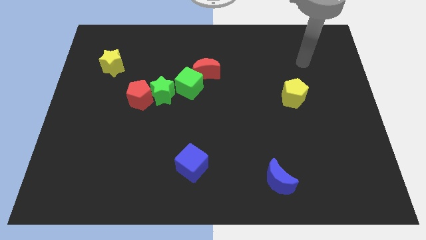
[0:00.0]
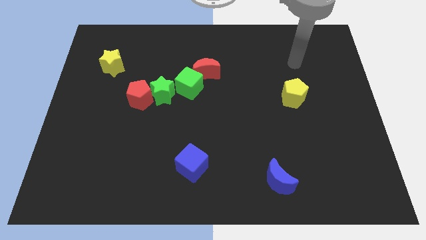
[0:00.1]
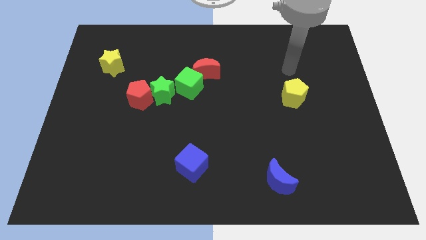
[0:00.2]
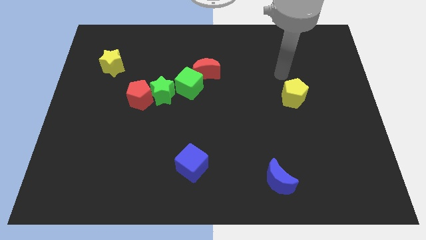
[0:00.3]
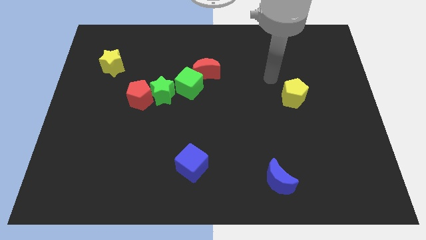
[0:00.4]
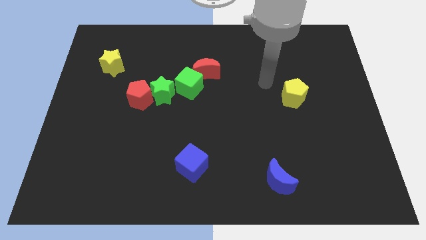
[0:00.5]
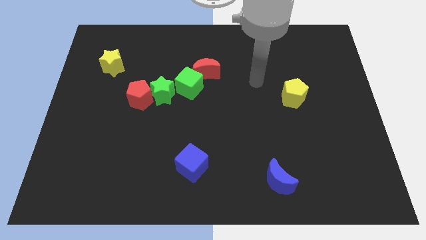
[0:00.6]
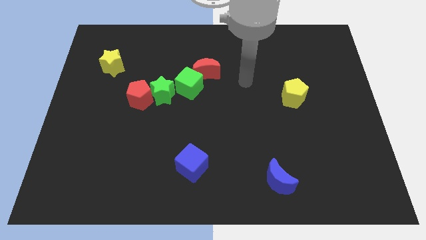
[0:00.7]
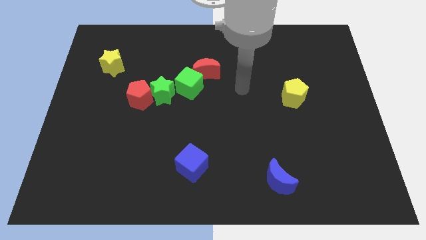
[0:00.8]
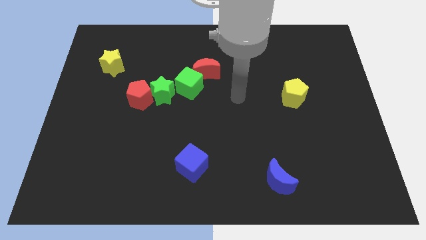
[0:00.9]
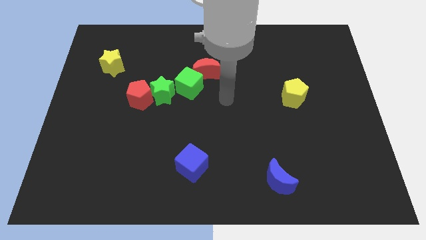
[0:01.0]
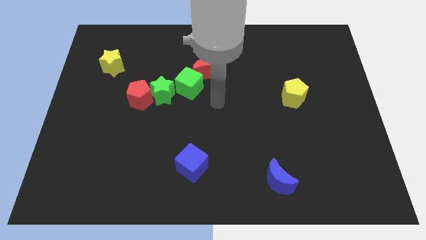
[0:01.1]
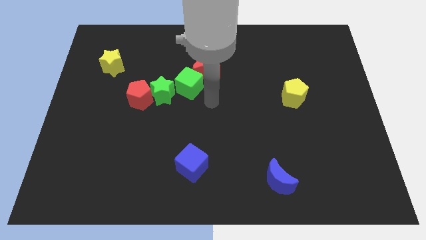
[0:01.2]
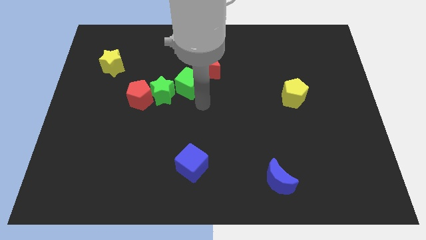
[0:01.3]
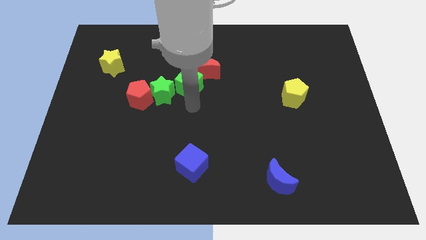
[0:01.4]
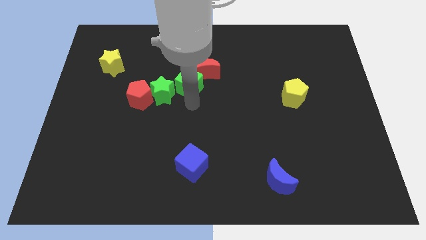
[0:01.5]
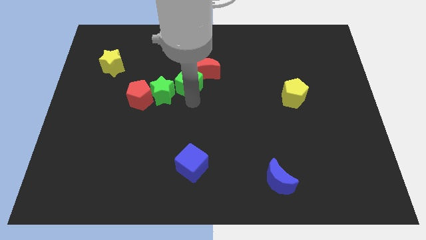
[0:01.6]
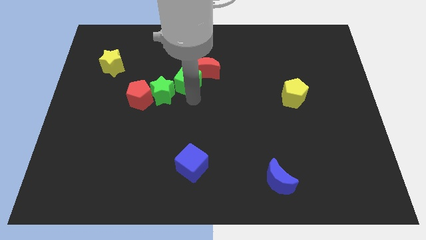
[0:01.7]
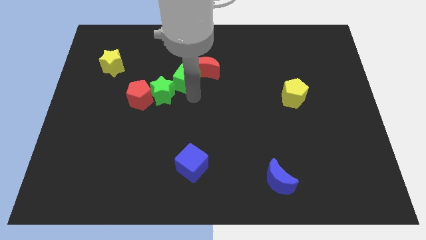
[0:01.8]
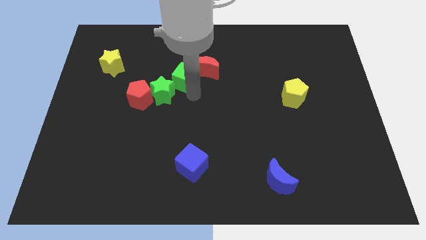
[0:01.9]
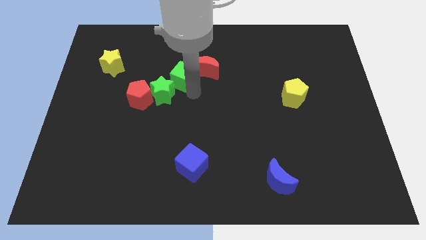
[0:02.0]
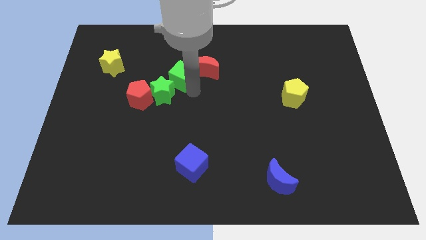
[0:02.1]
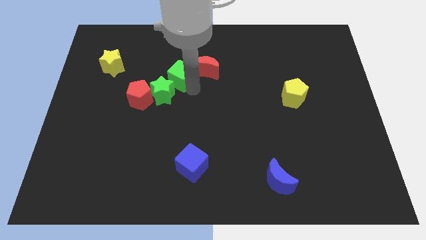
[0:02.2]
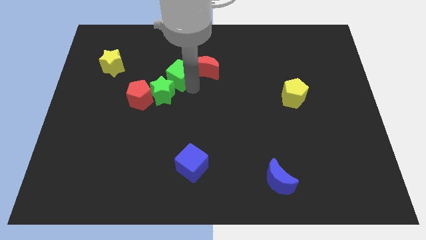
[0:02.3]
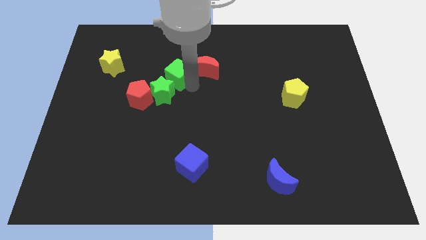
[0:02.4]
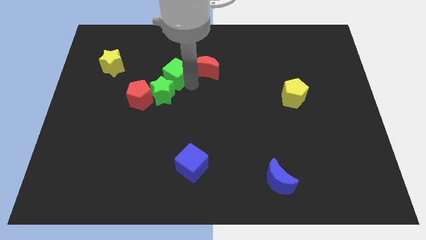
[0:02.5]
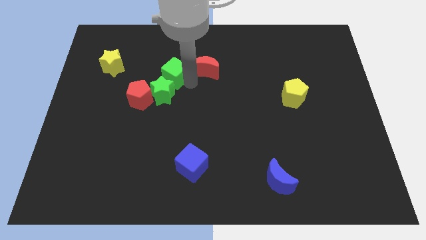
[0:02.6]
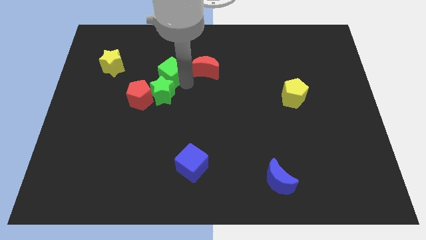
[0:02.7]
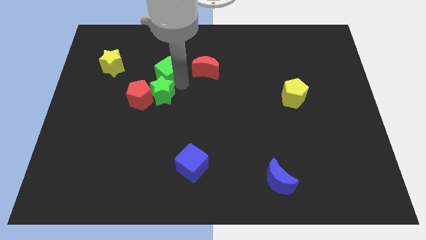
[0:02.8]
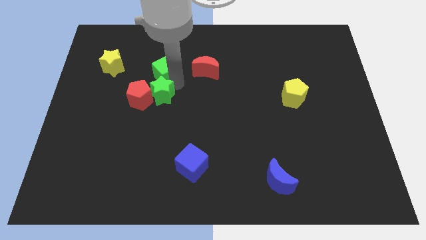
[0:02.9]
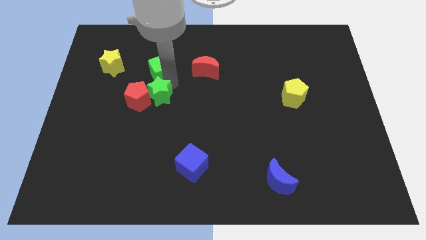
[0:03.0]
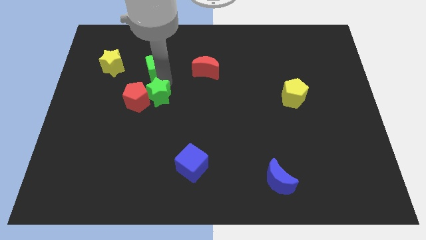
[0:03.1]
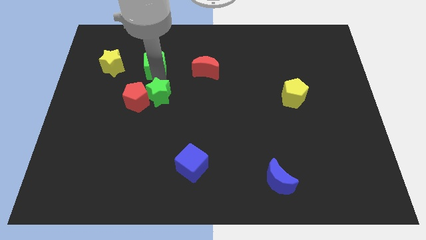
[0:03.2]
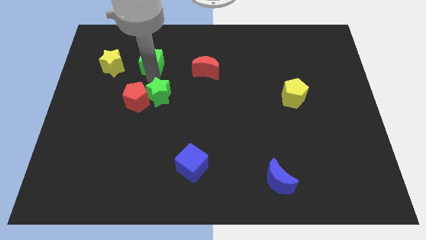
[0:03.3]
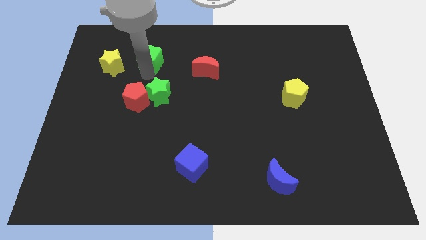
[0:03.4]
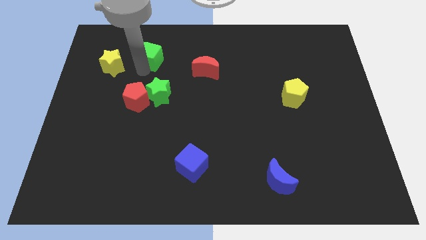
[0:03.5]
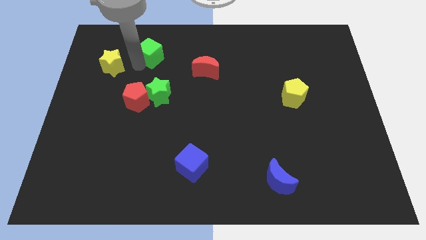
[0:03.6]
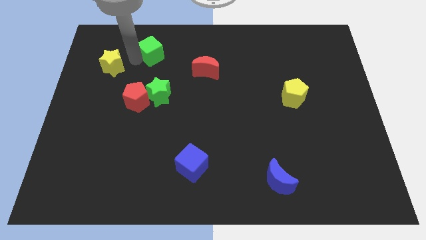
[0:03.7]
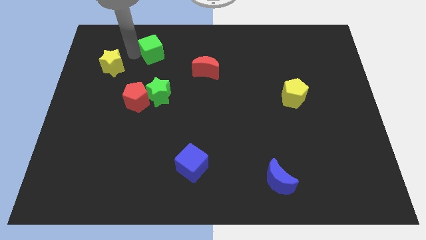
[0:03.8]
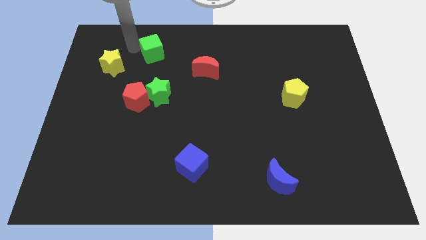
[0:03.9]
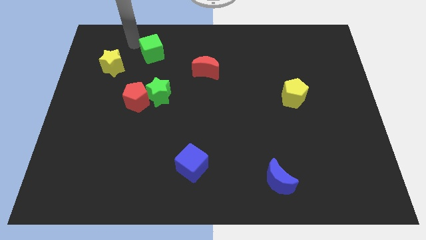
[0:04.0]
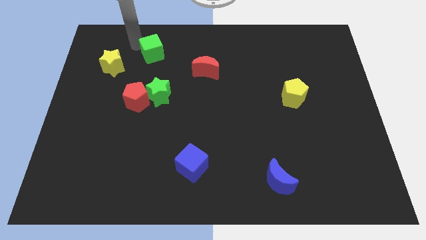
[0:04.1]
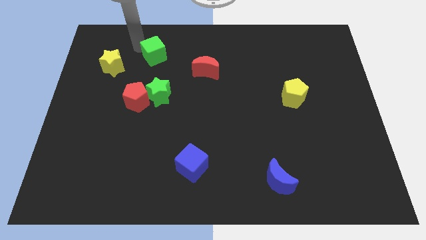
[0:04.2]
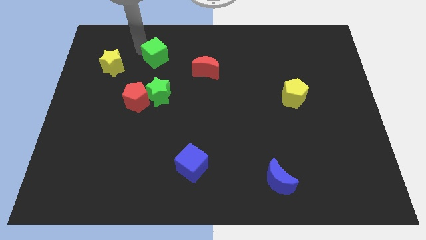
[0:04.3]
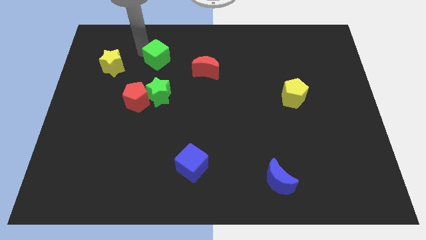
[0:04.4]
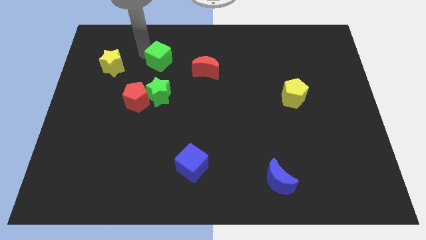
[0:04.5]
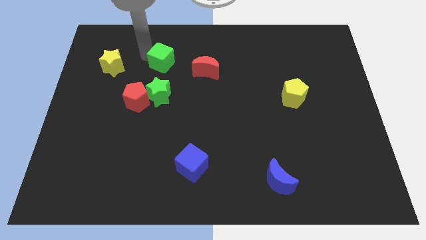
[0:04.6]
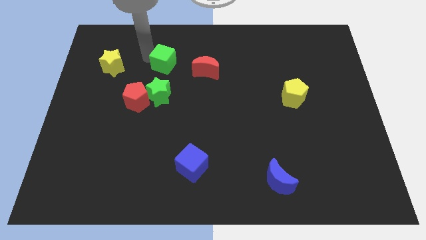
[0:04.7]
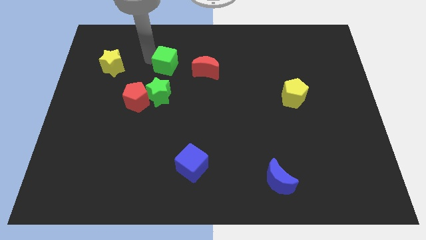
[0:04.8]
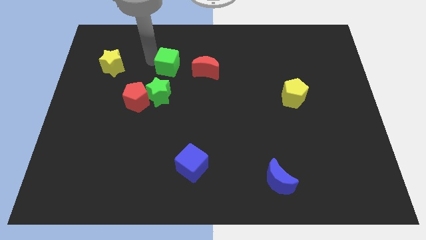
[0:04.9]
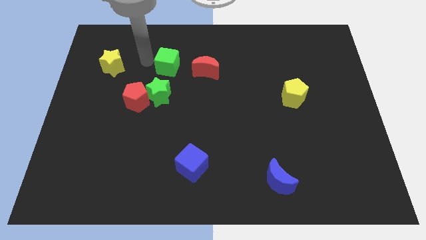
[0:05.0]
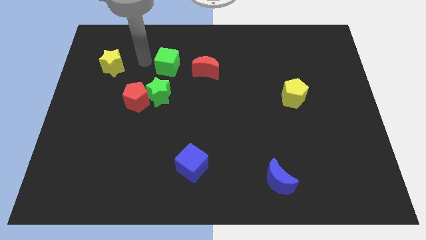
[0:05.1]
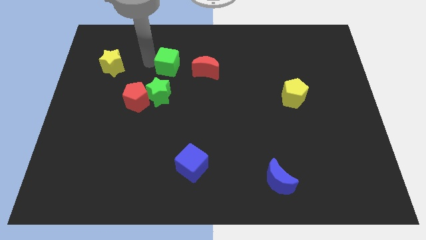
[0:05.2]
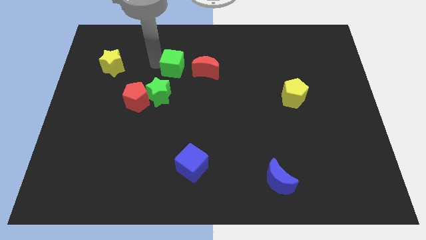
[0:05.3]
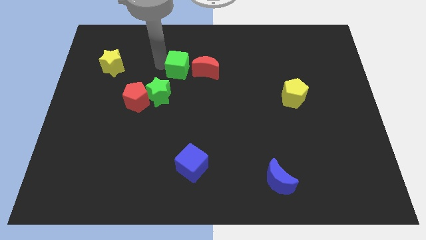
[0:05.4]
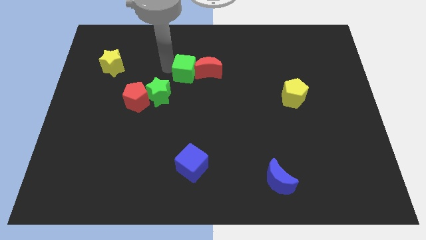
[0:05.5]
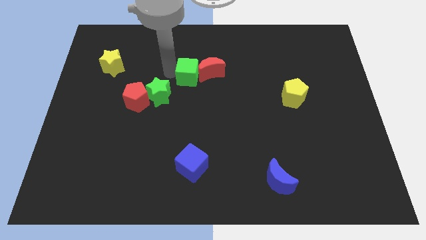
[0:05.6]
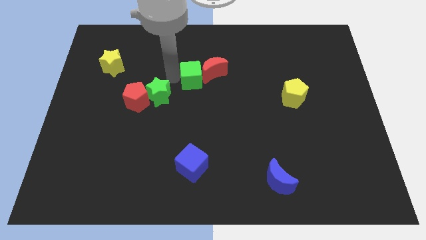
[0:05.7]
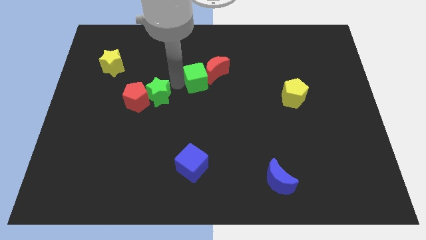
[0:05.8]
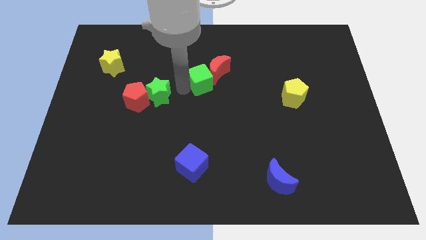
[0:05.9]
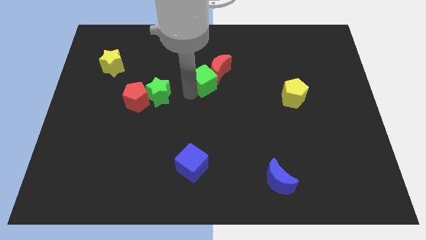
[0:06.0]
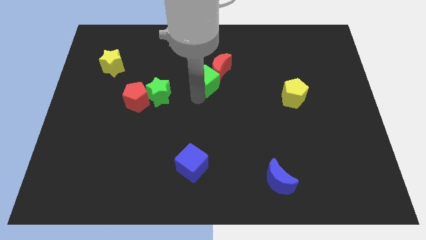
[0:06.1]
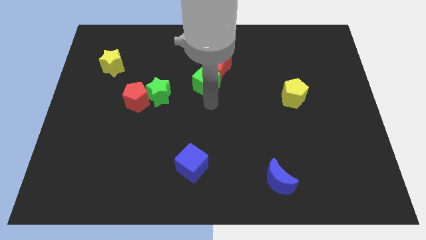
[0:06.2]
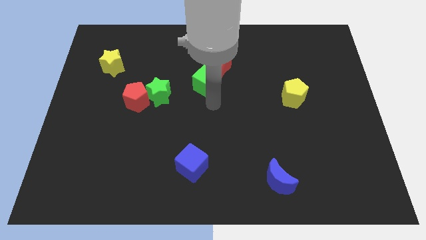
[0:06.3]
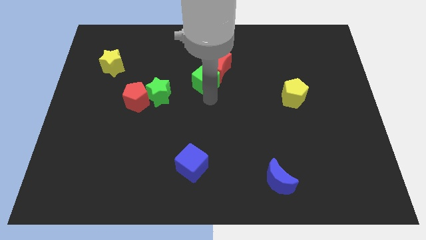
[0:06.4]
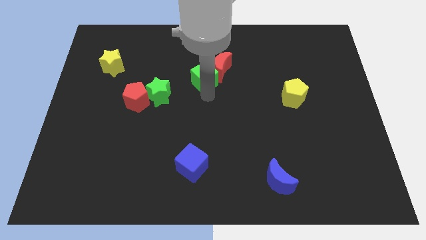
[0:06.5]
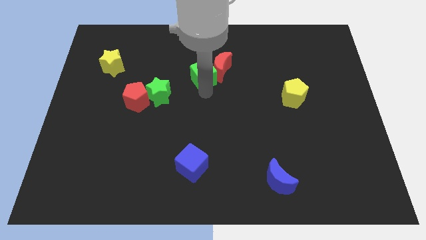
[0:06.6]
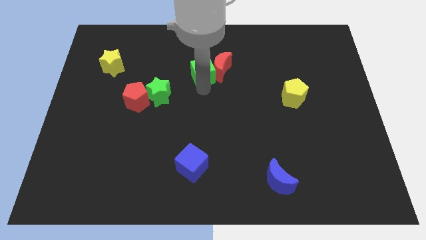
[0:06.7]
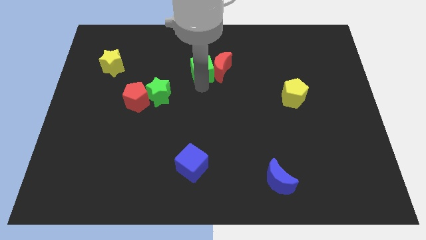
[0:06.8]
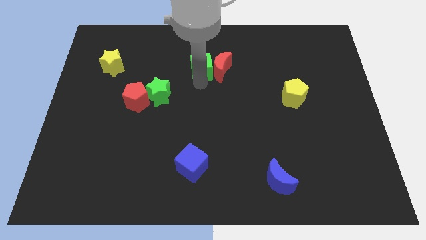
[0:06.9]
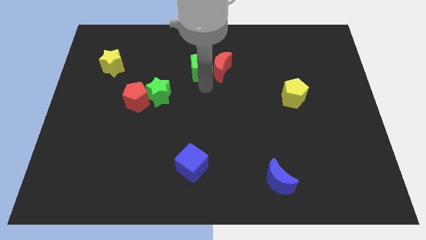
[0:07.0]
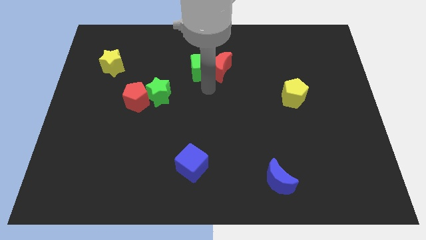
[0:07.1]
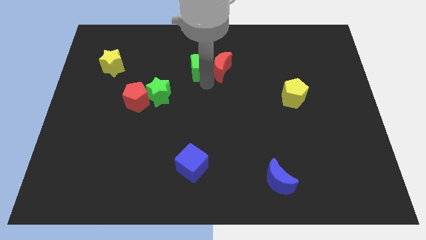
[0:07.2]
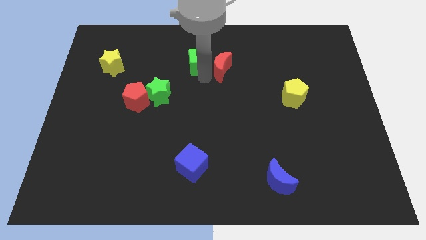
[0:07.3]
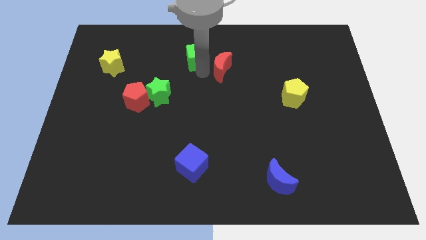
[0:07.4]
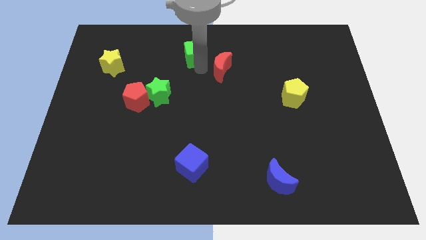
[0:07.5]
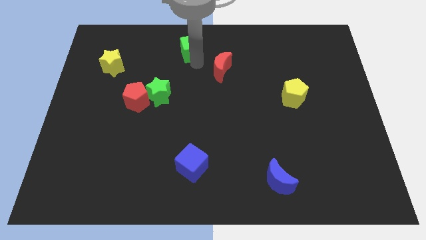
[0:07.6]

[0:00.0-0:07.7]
move the green cube to the towards your base
